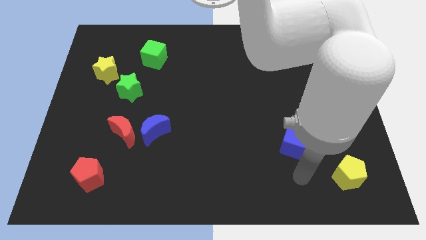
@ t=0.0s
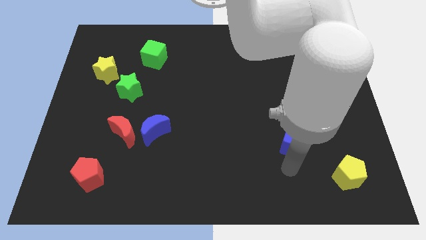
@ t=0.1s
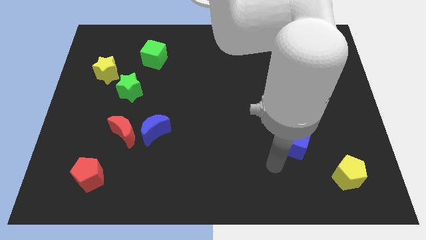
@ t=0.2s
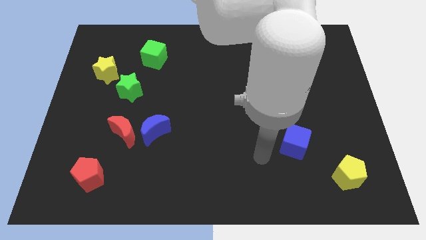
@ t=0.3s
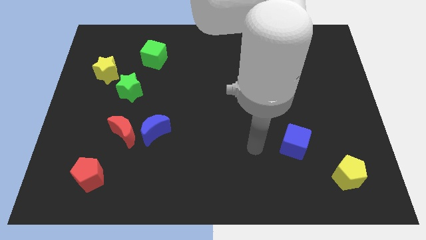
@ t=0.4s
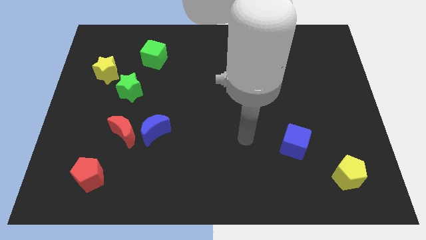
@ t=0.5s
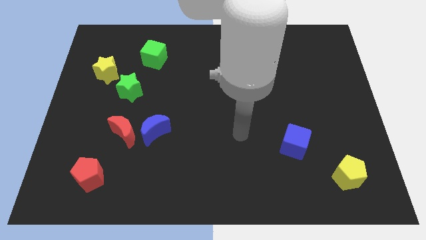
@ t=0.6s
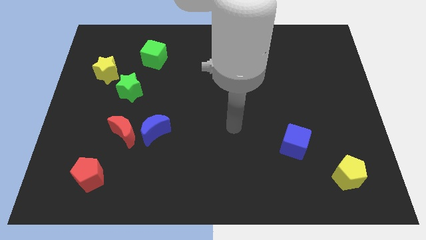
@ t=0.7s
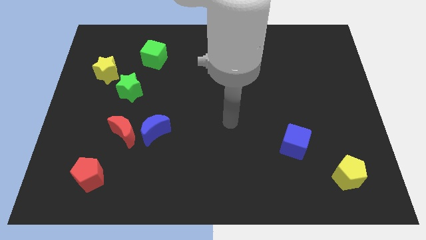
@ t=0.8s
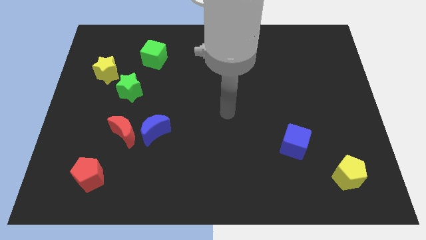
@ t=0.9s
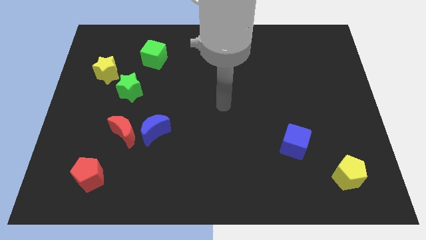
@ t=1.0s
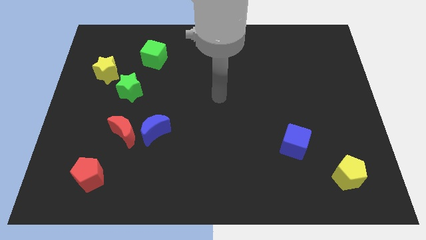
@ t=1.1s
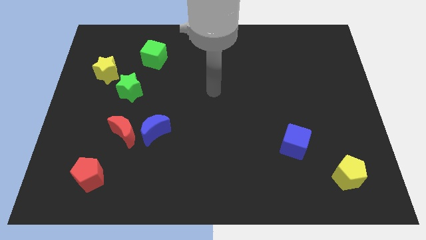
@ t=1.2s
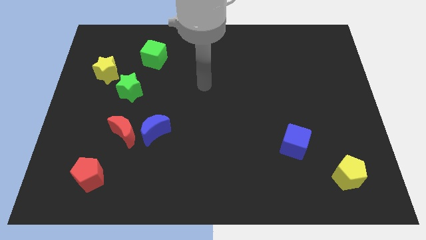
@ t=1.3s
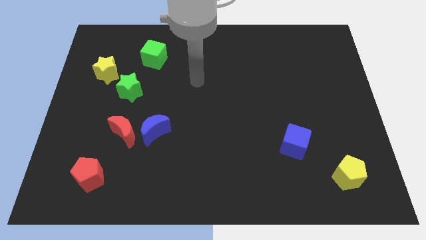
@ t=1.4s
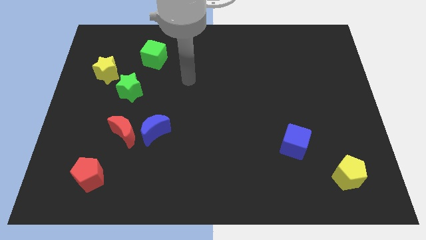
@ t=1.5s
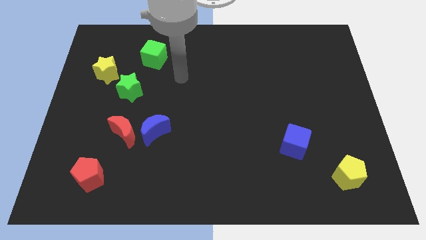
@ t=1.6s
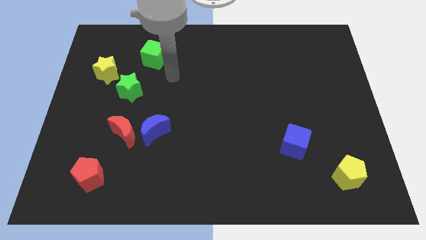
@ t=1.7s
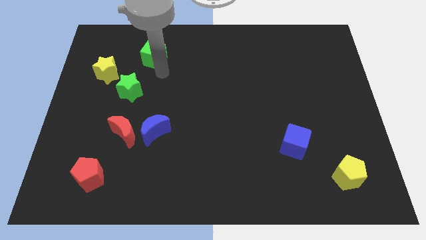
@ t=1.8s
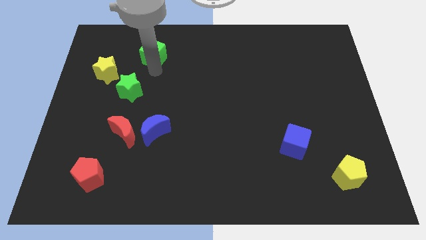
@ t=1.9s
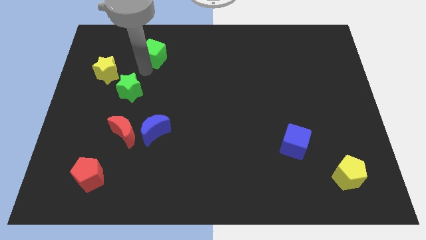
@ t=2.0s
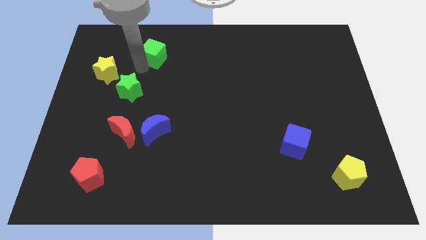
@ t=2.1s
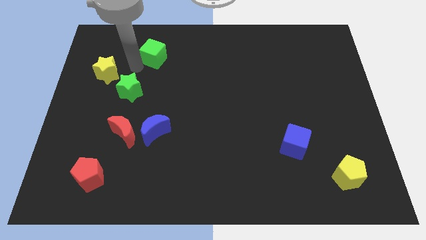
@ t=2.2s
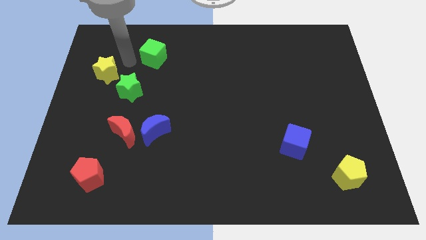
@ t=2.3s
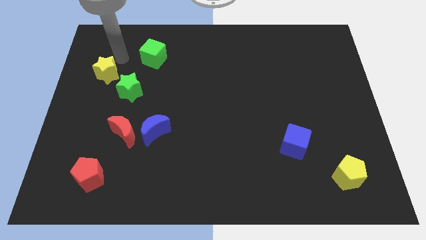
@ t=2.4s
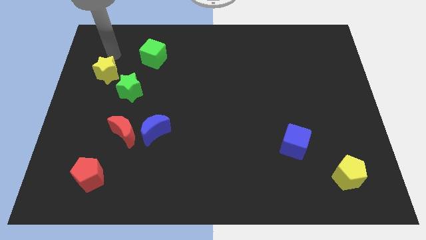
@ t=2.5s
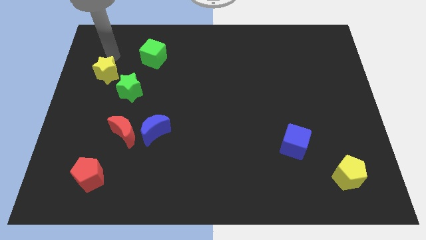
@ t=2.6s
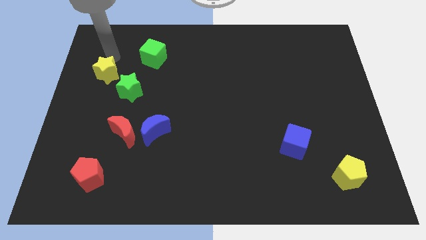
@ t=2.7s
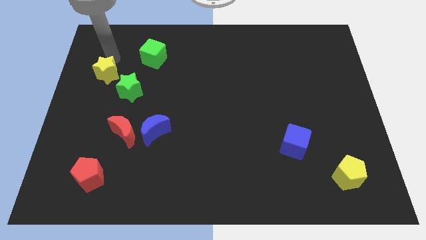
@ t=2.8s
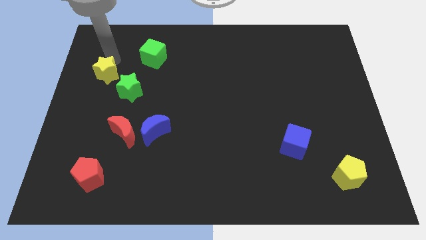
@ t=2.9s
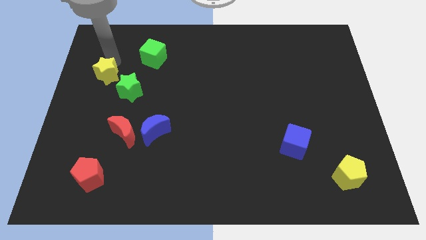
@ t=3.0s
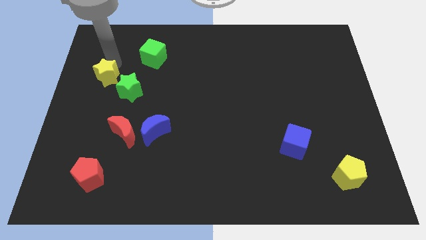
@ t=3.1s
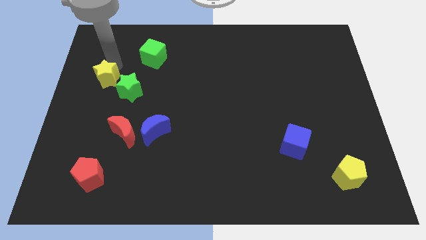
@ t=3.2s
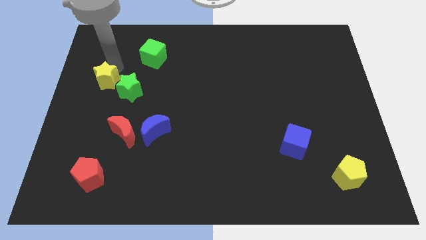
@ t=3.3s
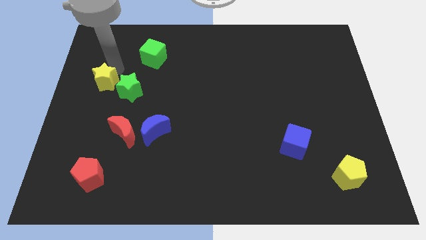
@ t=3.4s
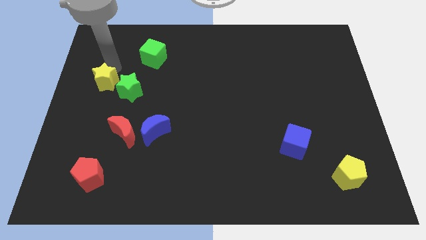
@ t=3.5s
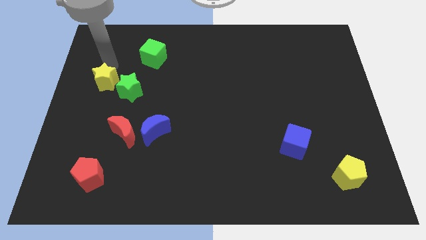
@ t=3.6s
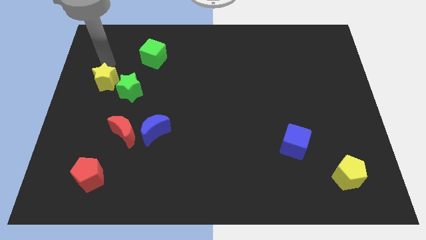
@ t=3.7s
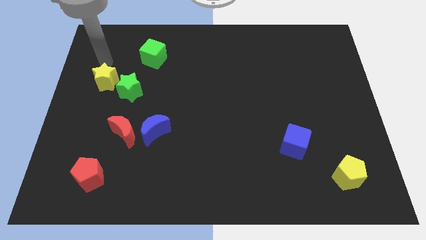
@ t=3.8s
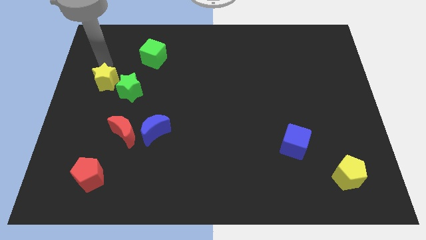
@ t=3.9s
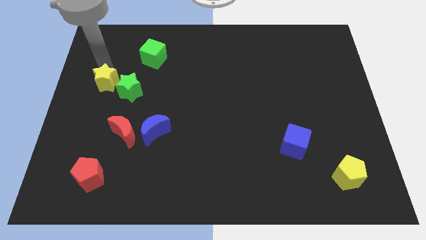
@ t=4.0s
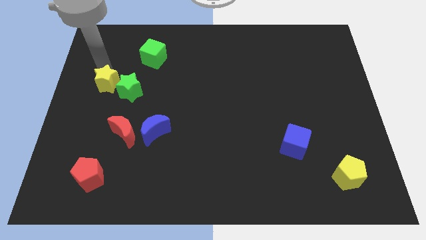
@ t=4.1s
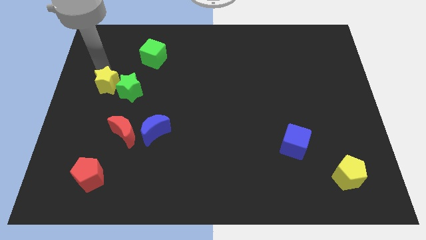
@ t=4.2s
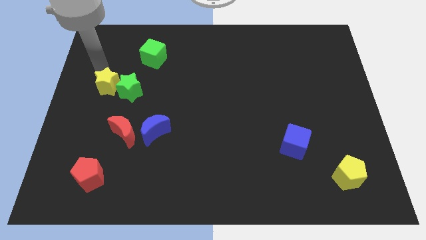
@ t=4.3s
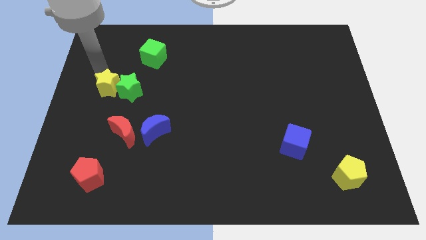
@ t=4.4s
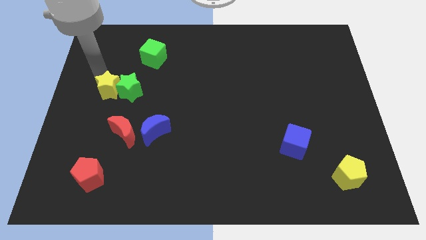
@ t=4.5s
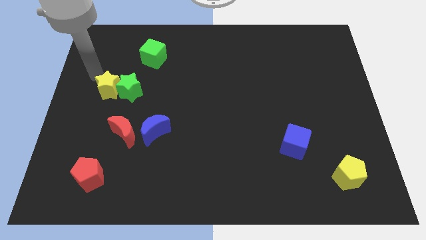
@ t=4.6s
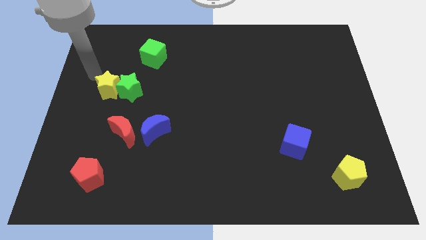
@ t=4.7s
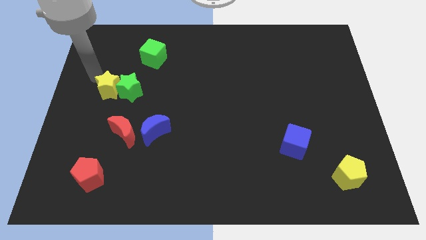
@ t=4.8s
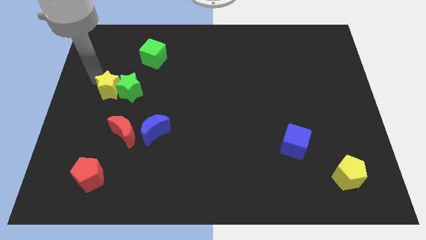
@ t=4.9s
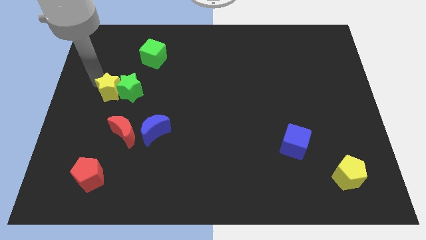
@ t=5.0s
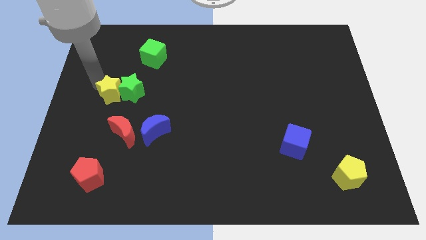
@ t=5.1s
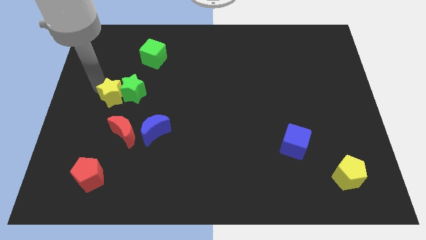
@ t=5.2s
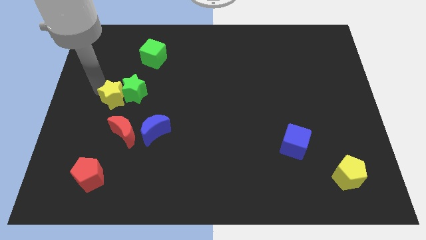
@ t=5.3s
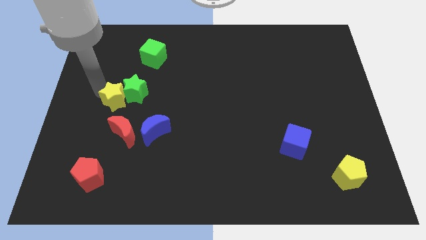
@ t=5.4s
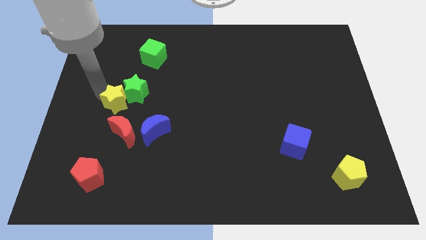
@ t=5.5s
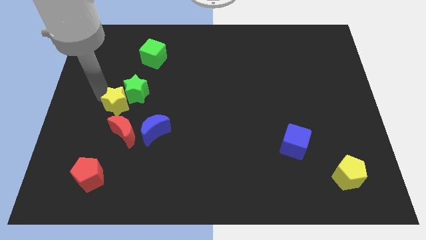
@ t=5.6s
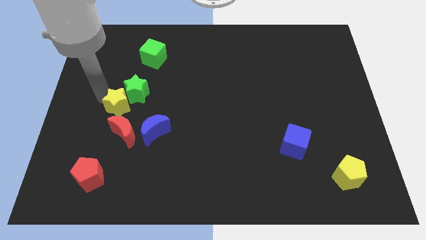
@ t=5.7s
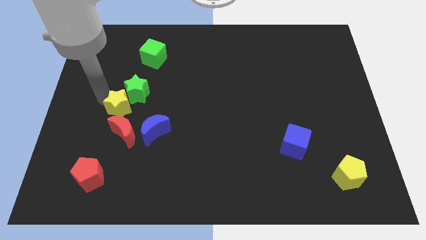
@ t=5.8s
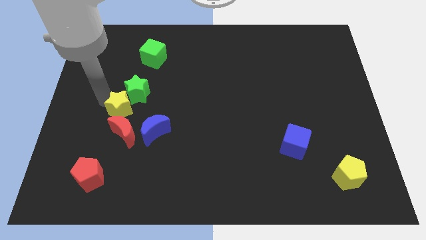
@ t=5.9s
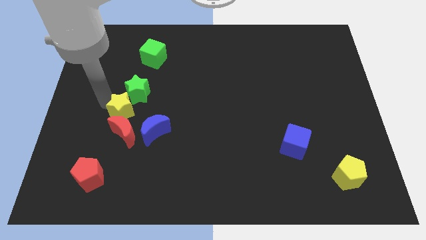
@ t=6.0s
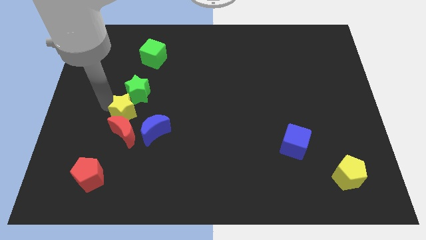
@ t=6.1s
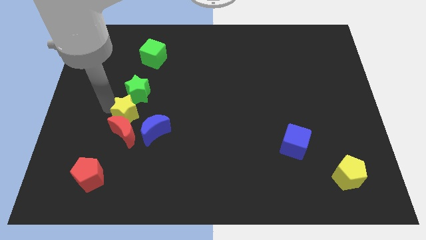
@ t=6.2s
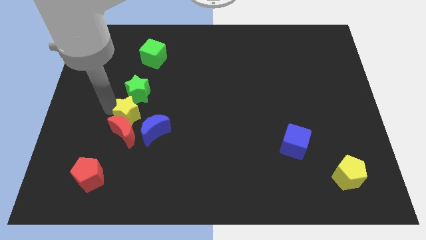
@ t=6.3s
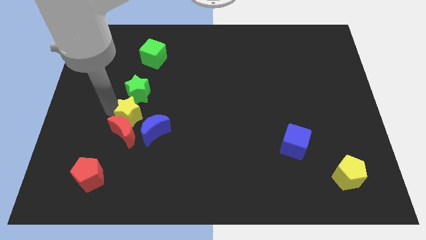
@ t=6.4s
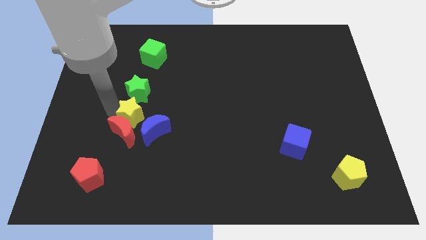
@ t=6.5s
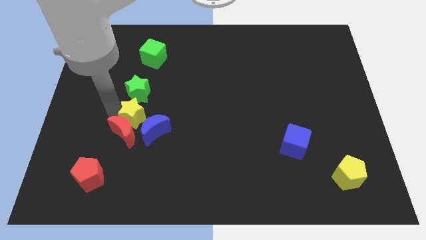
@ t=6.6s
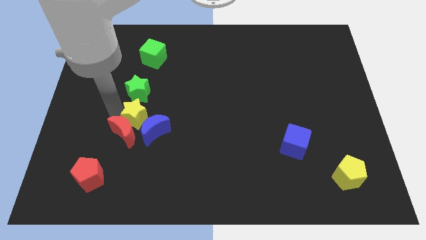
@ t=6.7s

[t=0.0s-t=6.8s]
push the yellow star next to the blue moon
